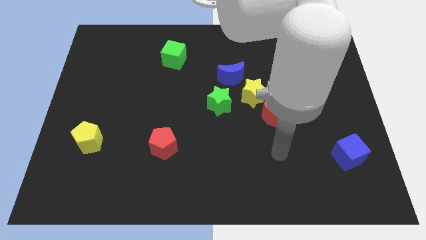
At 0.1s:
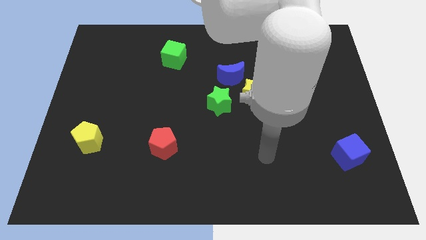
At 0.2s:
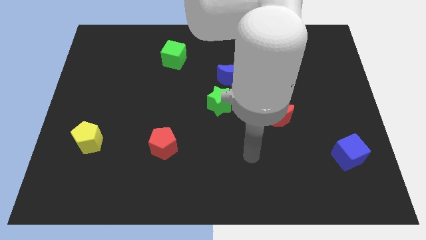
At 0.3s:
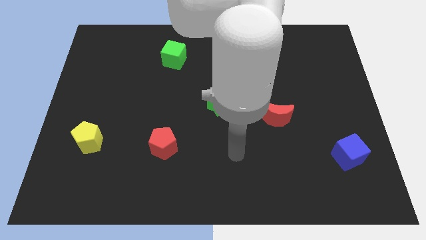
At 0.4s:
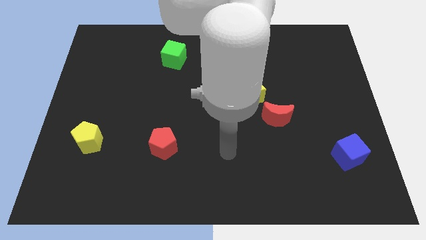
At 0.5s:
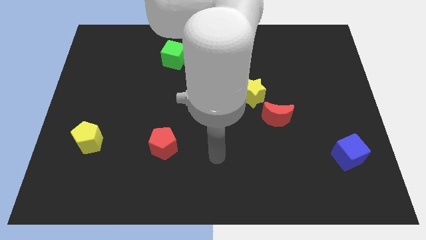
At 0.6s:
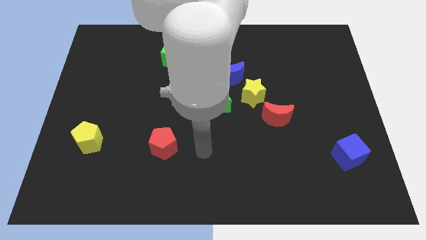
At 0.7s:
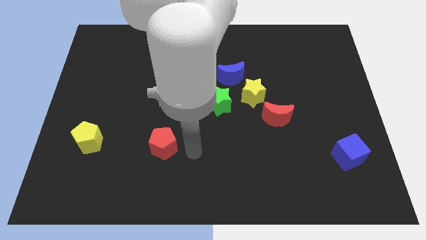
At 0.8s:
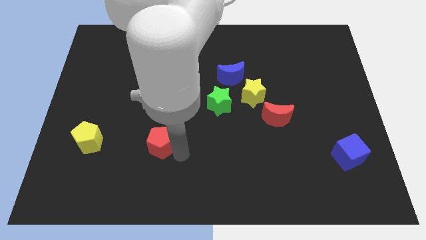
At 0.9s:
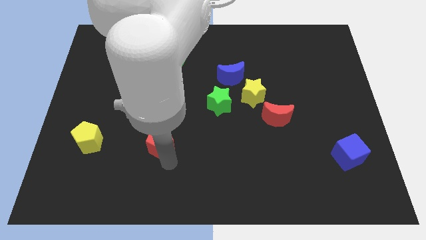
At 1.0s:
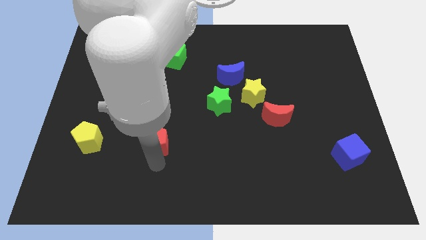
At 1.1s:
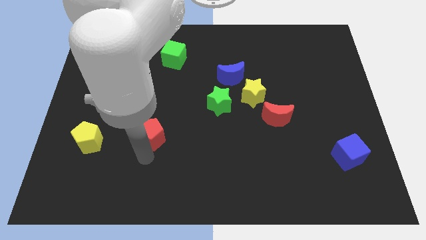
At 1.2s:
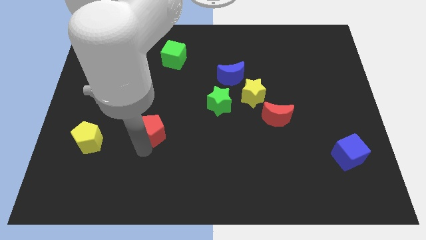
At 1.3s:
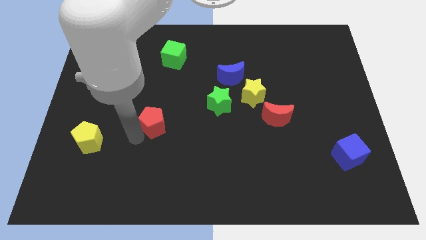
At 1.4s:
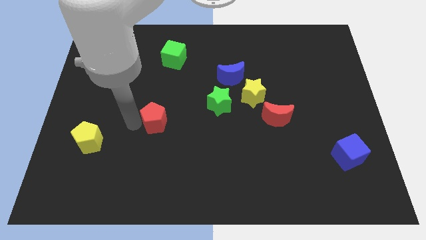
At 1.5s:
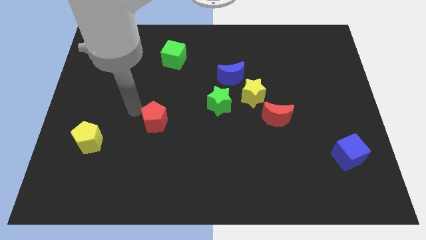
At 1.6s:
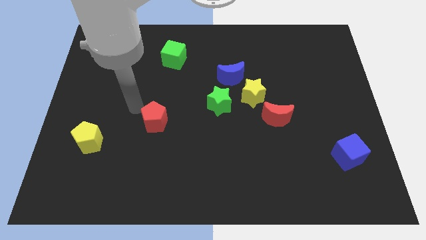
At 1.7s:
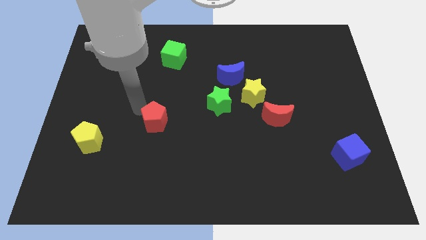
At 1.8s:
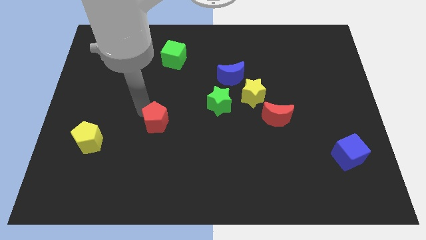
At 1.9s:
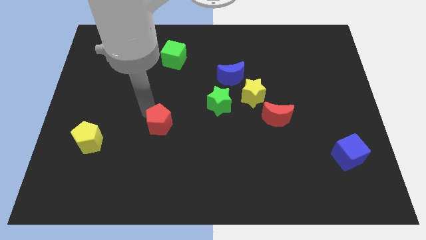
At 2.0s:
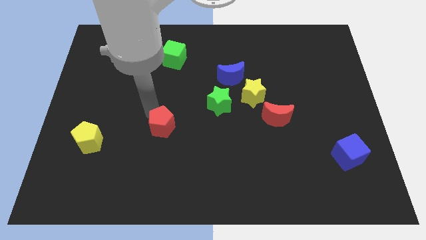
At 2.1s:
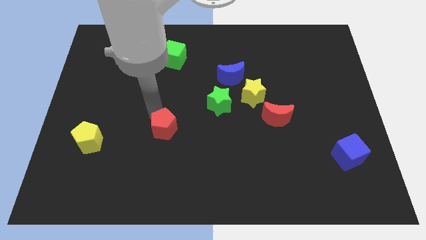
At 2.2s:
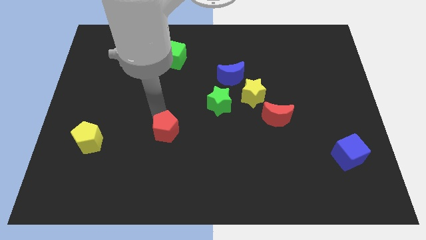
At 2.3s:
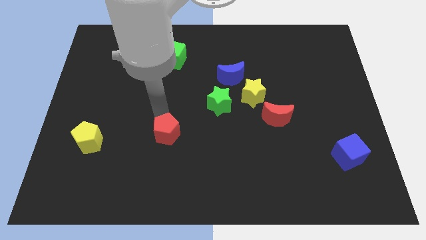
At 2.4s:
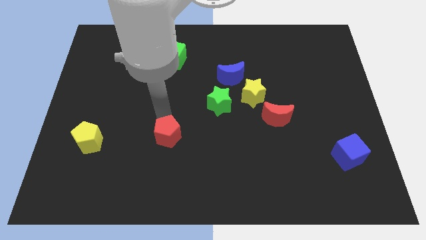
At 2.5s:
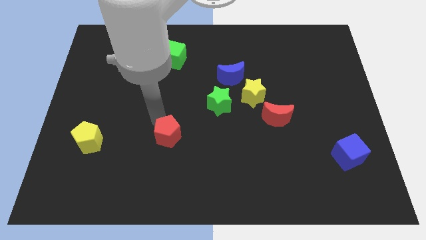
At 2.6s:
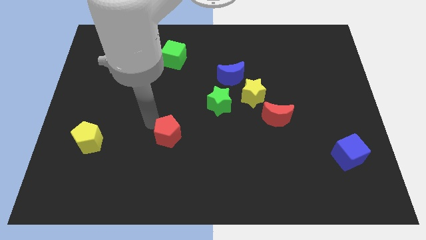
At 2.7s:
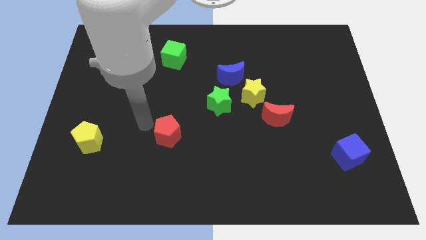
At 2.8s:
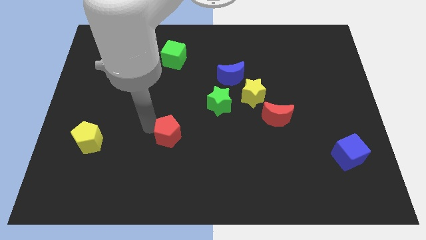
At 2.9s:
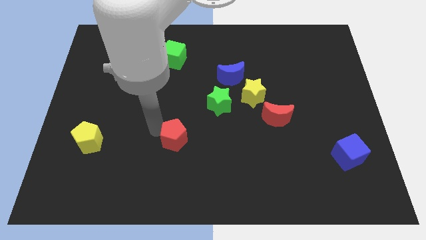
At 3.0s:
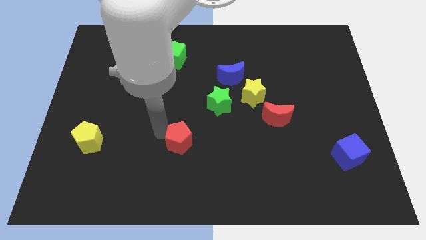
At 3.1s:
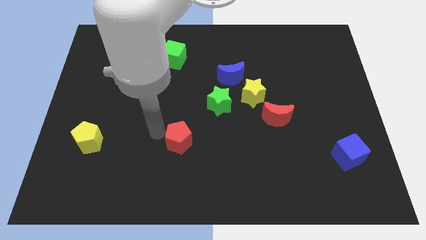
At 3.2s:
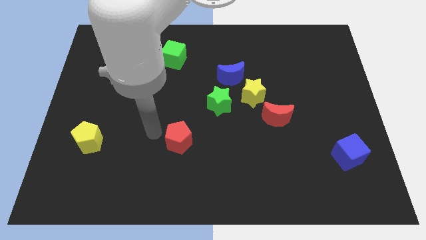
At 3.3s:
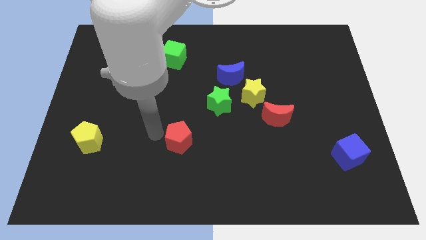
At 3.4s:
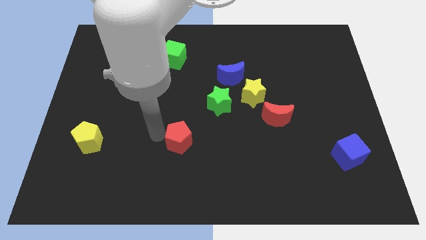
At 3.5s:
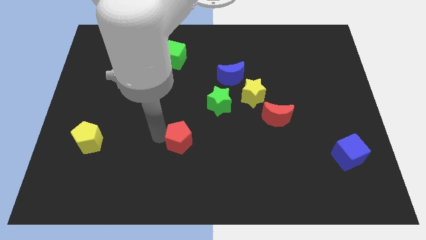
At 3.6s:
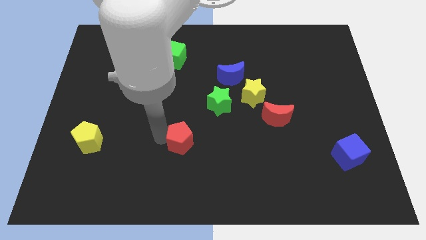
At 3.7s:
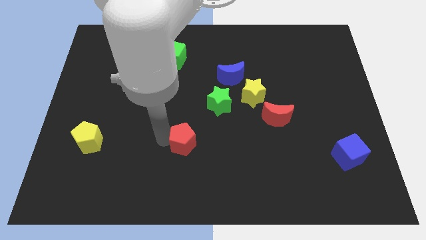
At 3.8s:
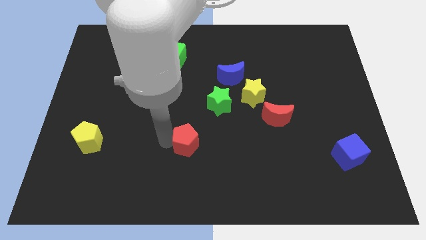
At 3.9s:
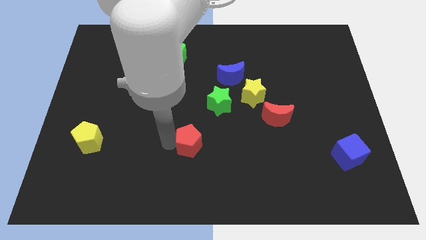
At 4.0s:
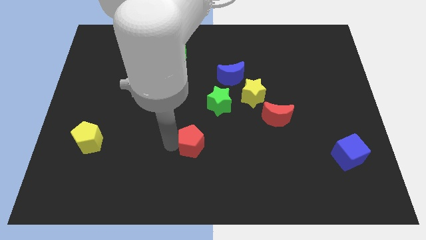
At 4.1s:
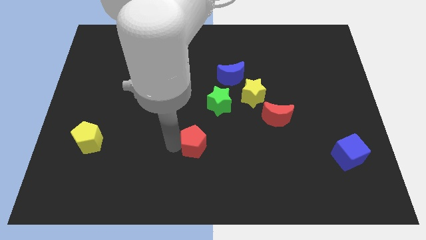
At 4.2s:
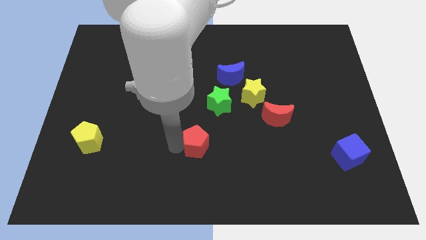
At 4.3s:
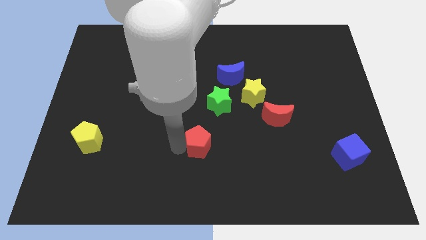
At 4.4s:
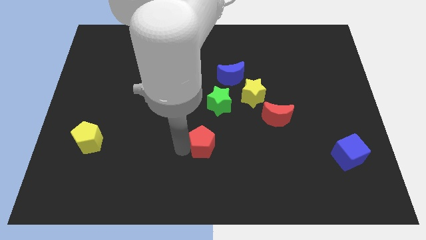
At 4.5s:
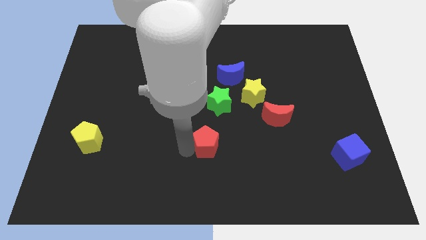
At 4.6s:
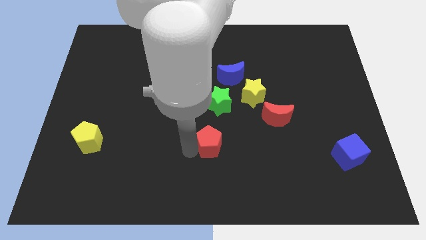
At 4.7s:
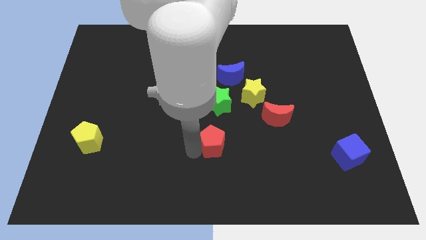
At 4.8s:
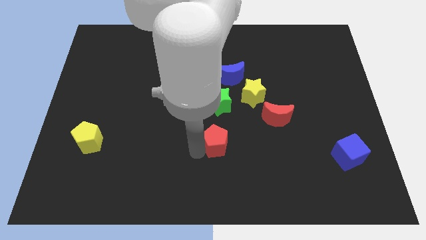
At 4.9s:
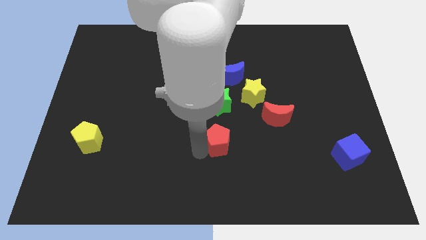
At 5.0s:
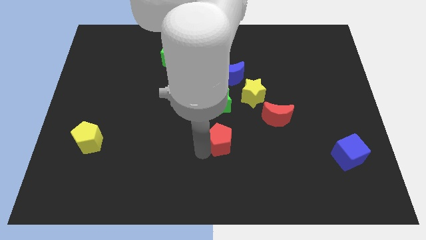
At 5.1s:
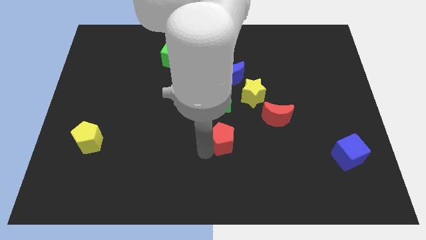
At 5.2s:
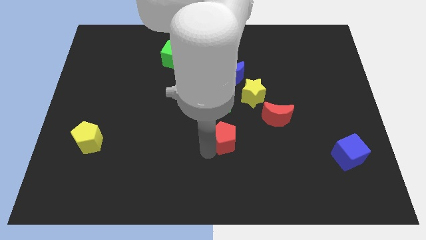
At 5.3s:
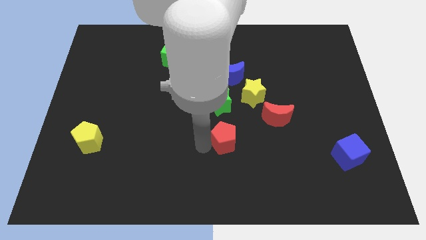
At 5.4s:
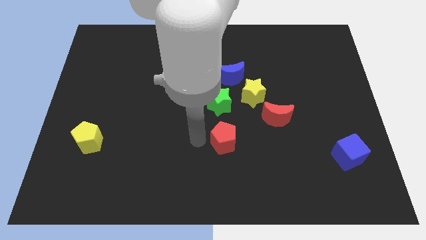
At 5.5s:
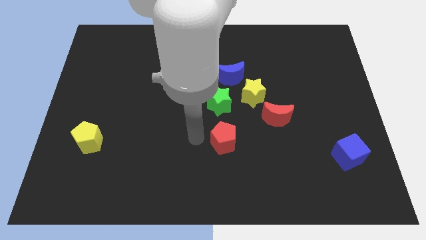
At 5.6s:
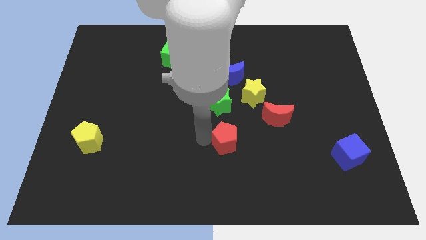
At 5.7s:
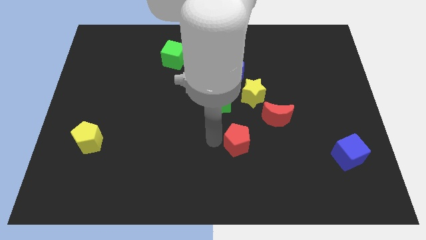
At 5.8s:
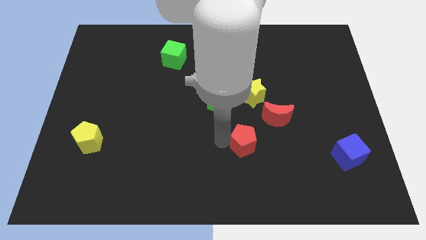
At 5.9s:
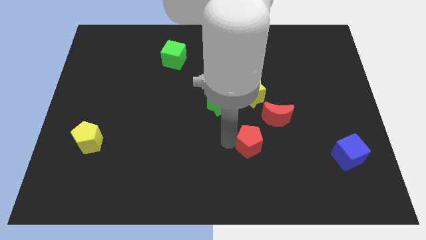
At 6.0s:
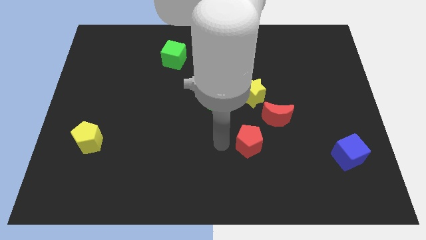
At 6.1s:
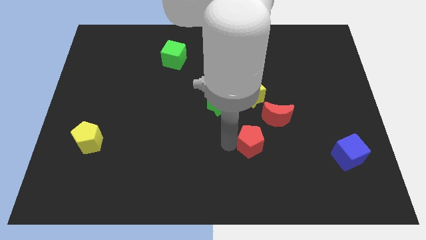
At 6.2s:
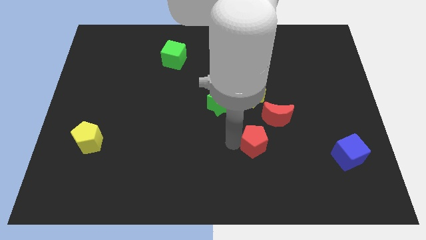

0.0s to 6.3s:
push the red pentagon right

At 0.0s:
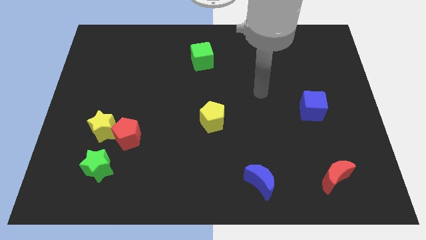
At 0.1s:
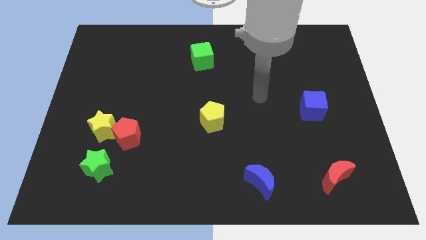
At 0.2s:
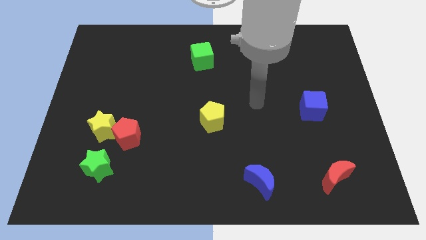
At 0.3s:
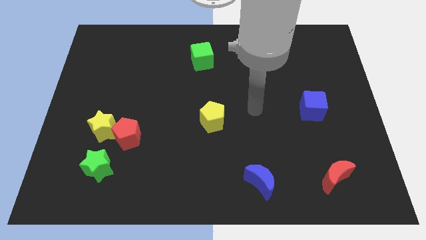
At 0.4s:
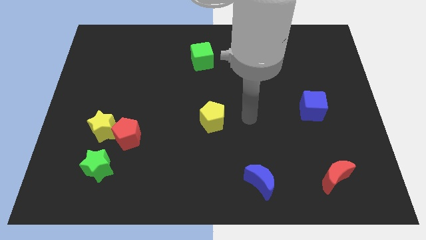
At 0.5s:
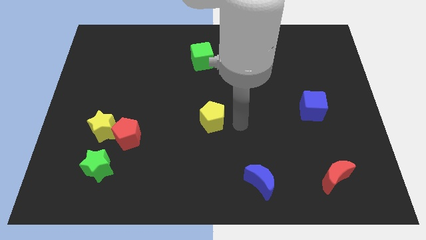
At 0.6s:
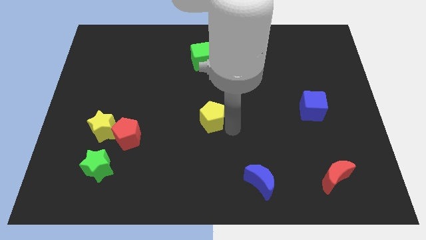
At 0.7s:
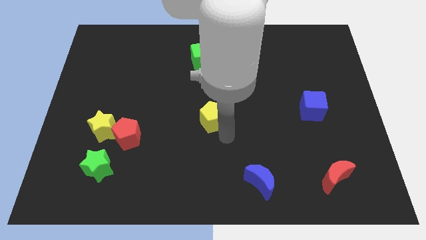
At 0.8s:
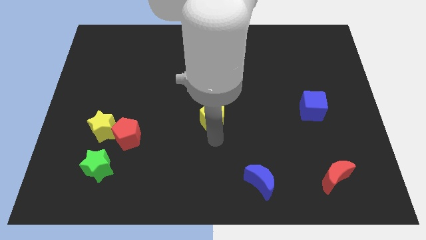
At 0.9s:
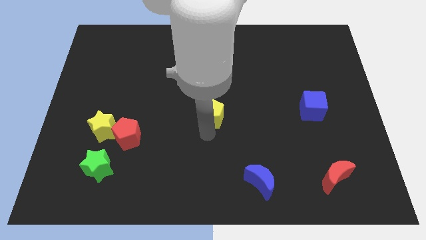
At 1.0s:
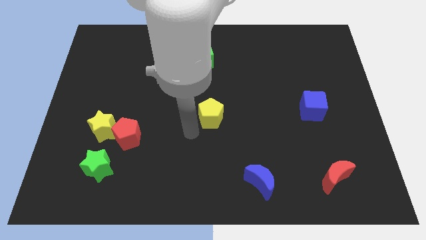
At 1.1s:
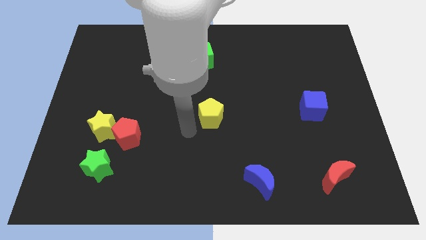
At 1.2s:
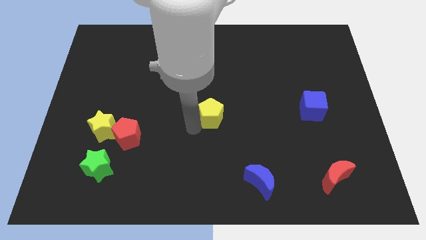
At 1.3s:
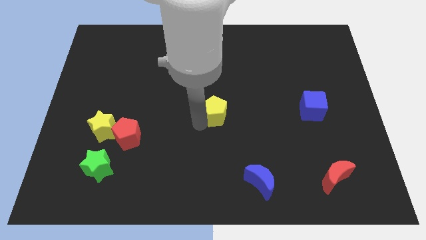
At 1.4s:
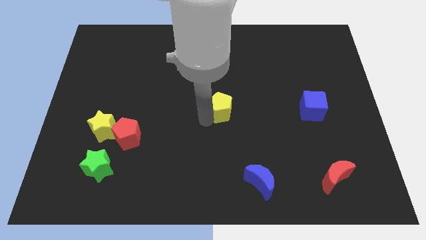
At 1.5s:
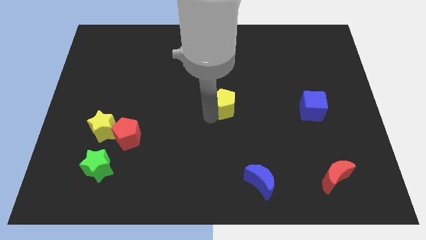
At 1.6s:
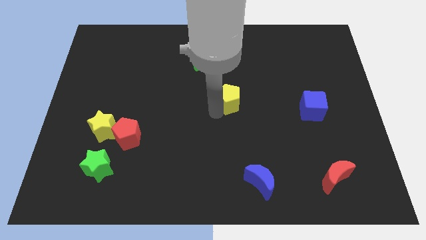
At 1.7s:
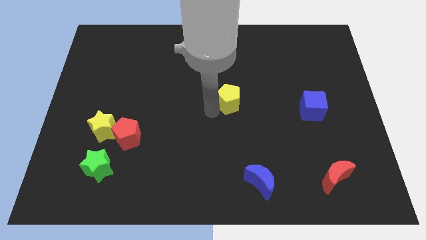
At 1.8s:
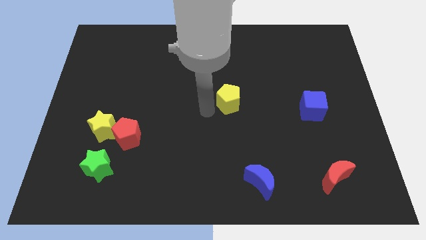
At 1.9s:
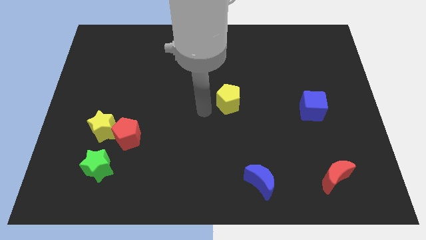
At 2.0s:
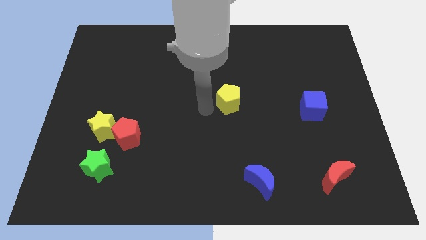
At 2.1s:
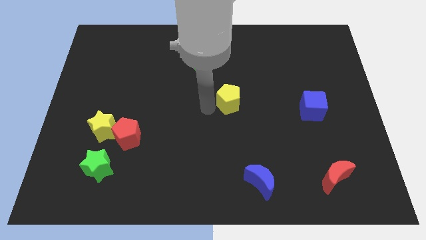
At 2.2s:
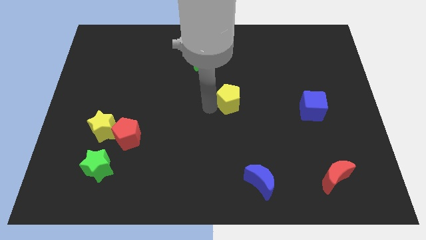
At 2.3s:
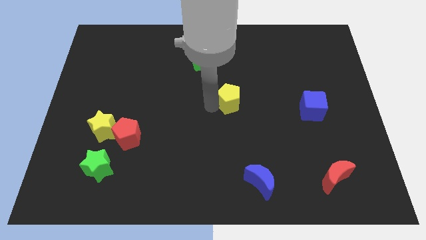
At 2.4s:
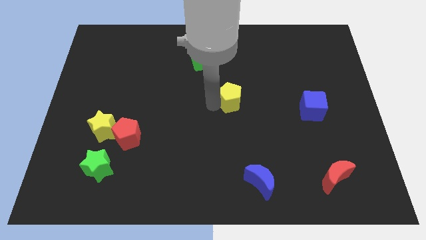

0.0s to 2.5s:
slightly move the yellow pentagon upwards and then right
